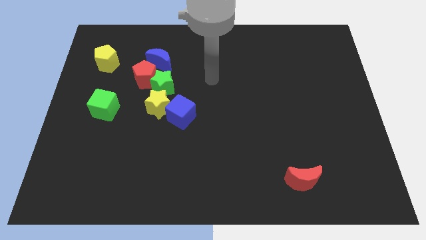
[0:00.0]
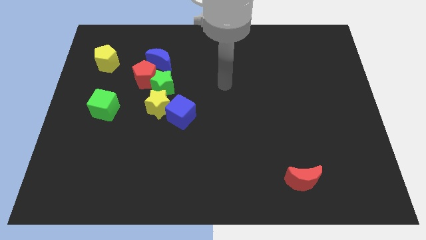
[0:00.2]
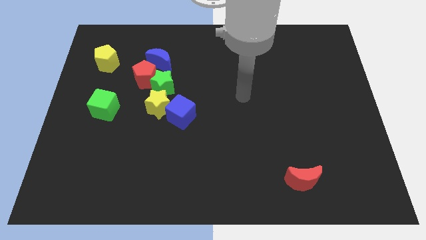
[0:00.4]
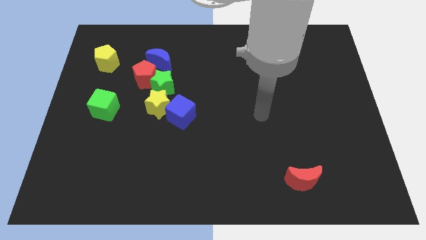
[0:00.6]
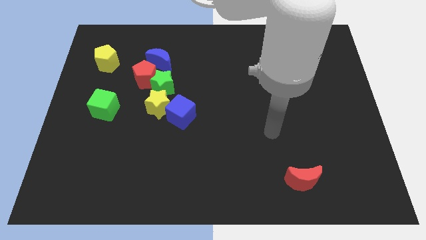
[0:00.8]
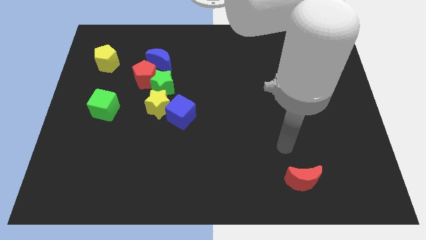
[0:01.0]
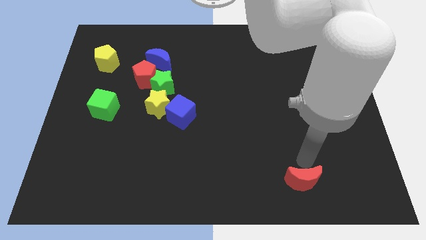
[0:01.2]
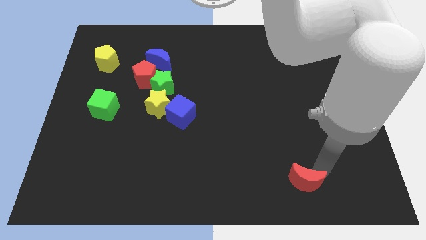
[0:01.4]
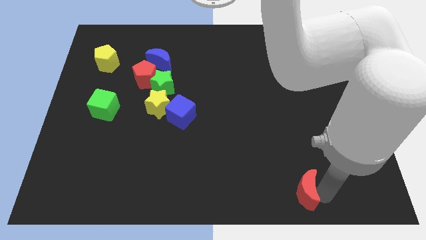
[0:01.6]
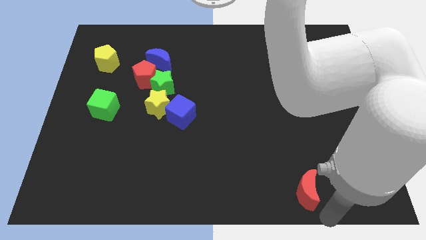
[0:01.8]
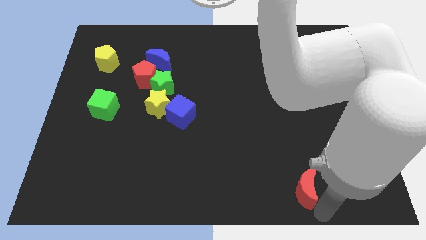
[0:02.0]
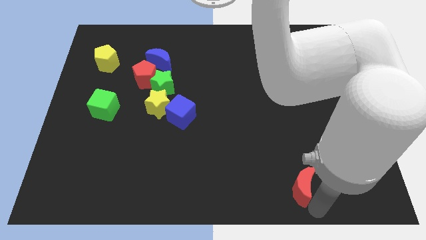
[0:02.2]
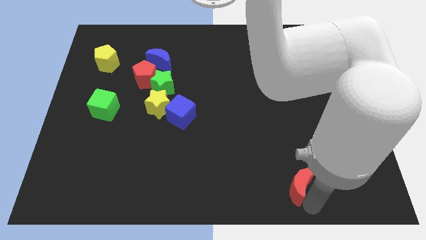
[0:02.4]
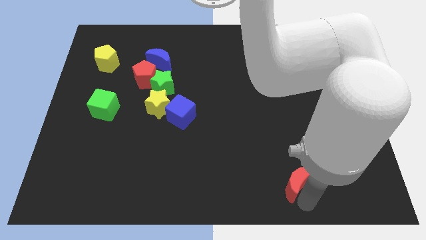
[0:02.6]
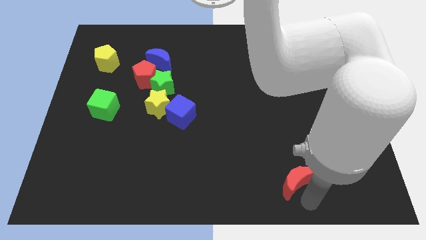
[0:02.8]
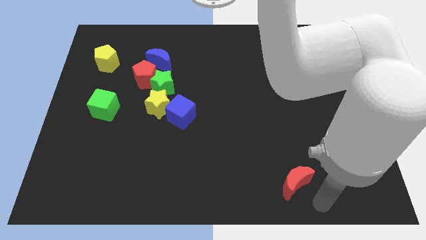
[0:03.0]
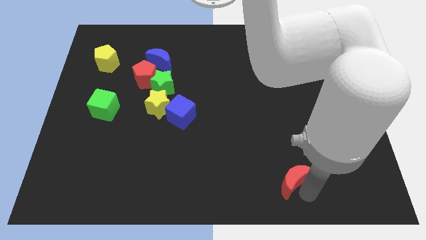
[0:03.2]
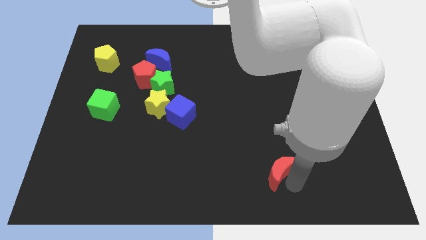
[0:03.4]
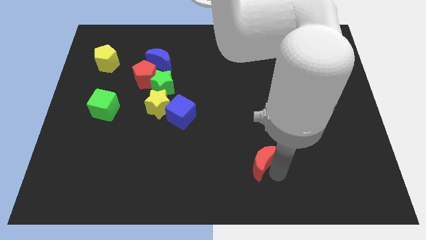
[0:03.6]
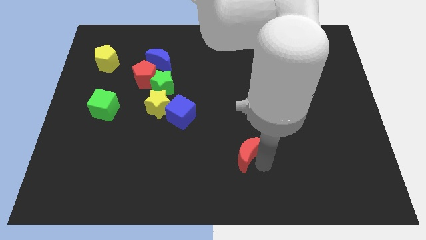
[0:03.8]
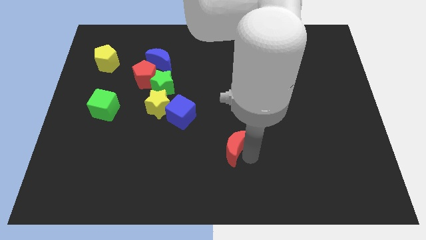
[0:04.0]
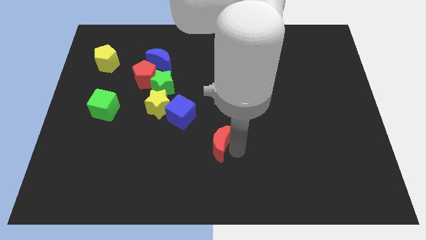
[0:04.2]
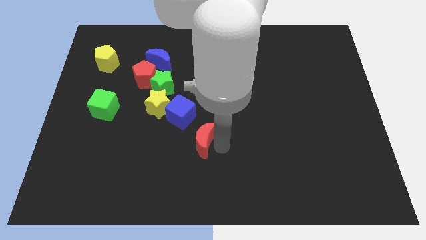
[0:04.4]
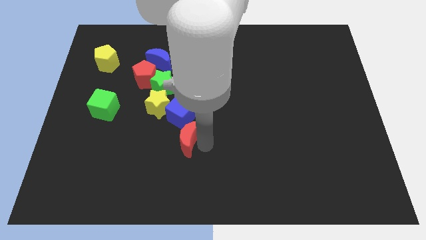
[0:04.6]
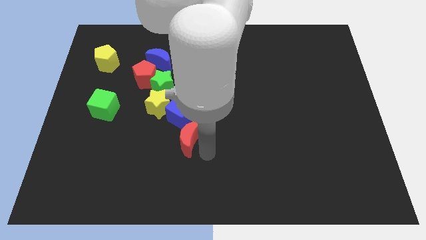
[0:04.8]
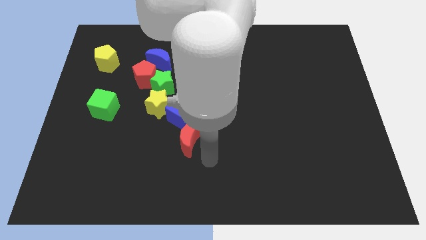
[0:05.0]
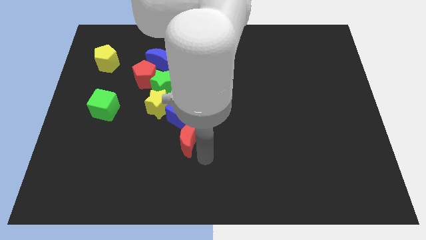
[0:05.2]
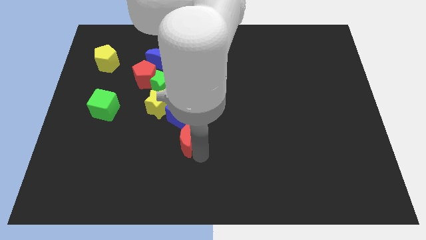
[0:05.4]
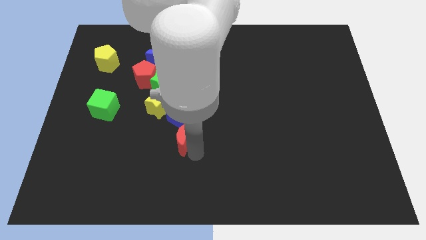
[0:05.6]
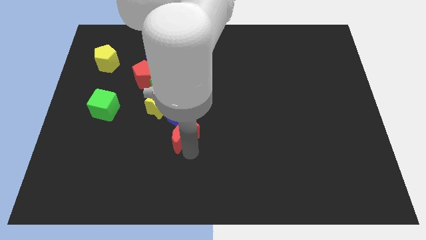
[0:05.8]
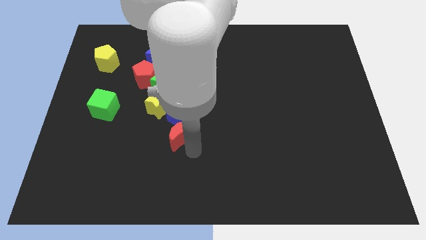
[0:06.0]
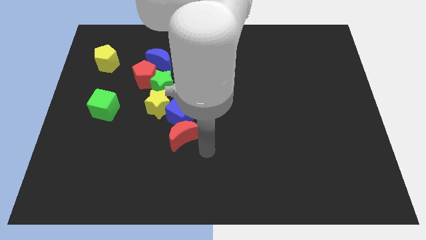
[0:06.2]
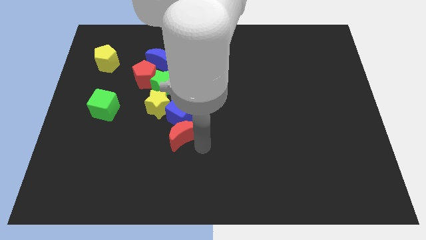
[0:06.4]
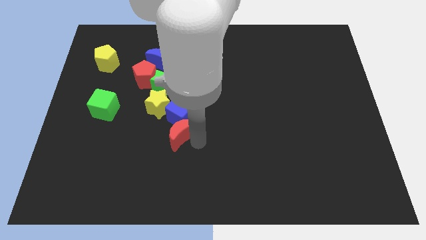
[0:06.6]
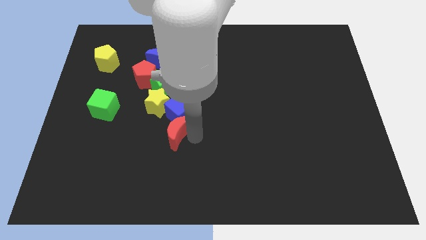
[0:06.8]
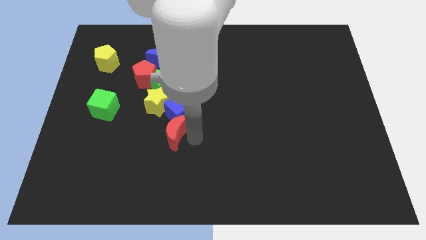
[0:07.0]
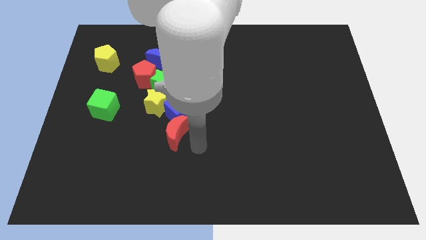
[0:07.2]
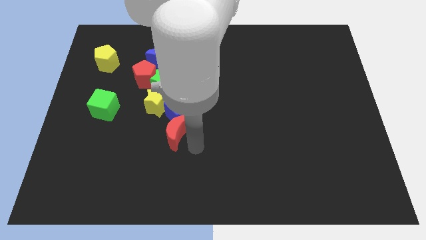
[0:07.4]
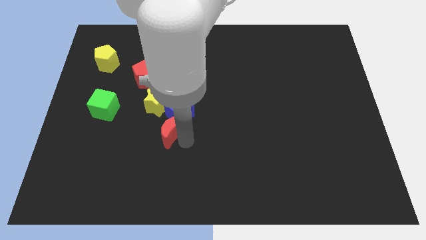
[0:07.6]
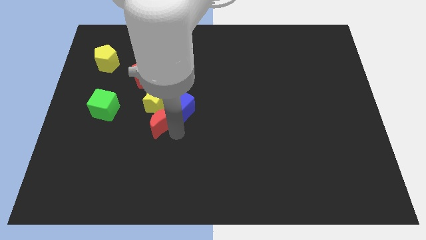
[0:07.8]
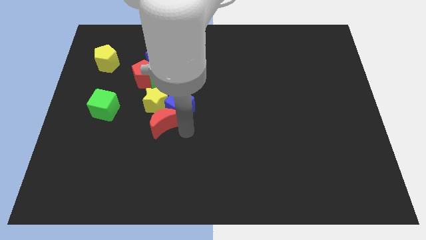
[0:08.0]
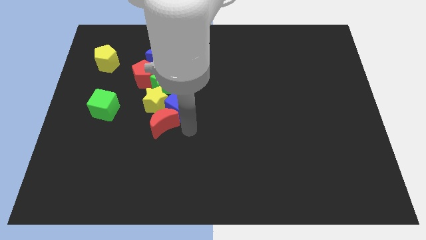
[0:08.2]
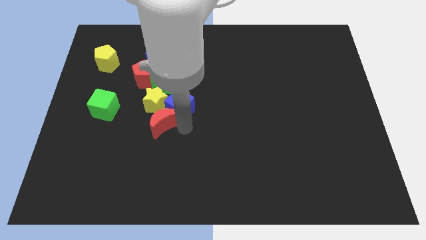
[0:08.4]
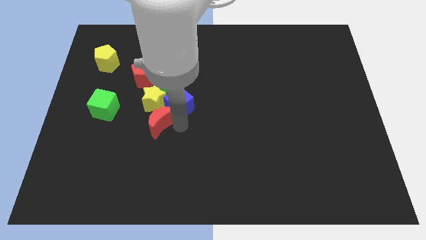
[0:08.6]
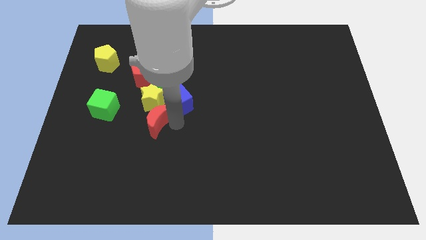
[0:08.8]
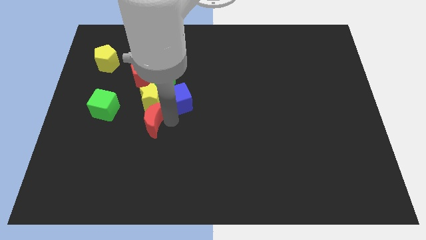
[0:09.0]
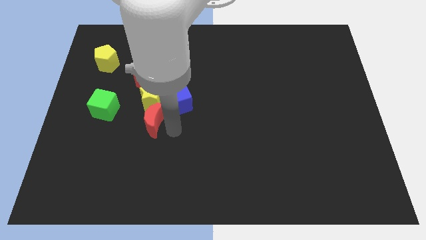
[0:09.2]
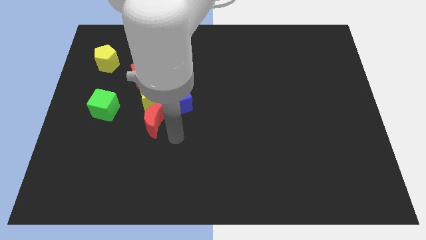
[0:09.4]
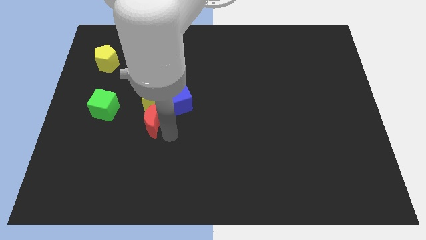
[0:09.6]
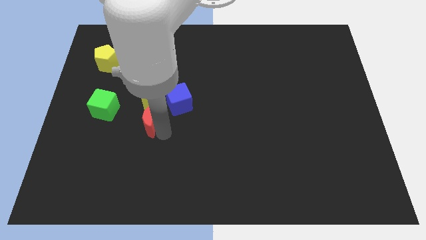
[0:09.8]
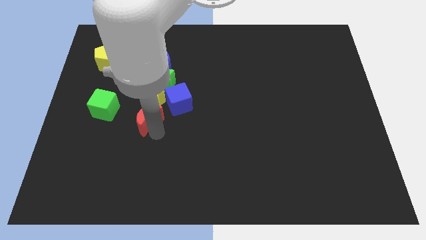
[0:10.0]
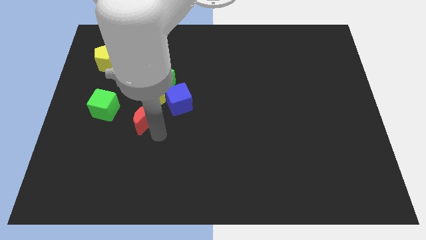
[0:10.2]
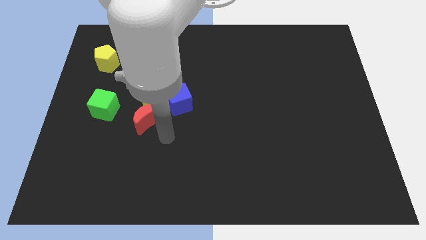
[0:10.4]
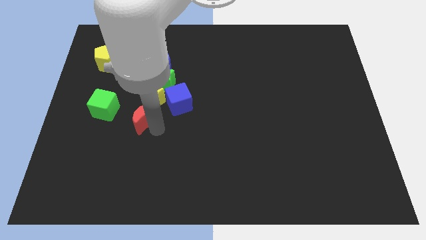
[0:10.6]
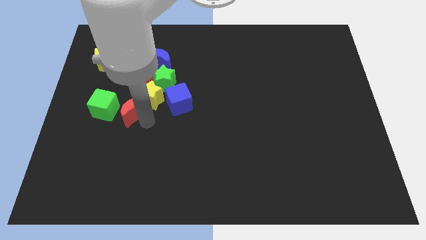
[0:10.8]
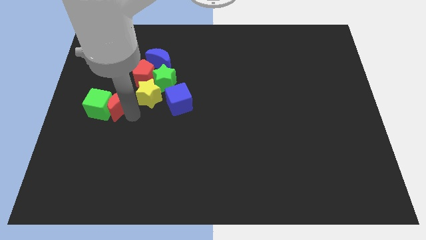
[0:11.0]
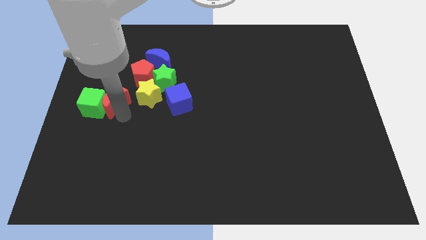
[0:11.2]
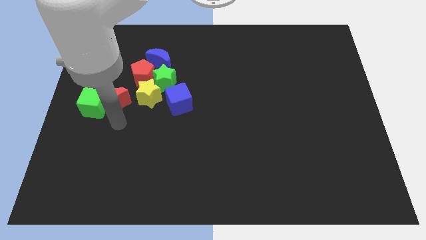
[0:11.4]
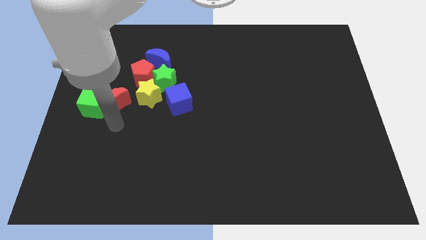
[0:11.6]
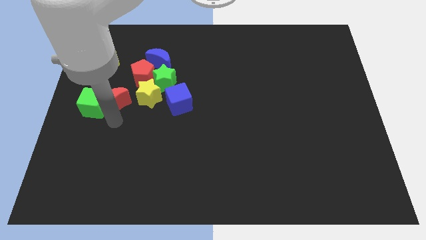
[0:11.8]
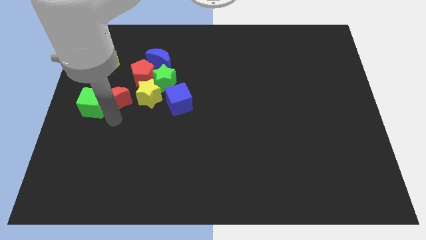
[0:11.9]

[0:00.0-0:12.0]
slide the red moon to the bottom of the yellow pentagon

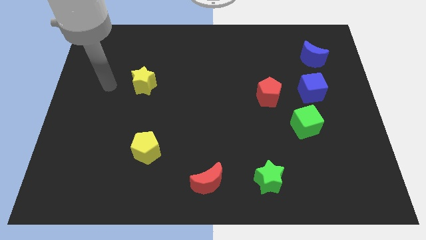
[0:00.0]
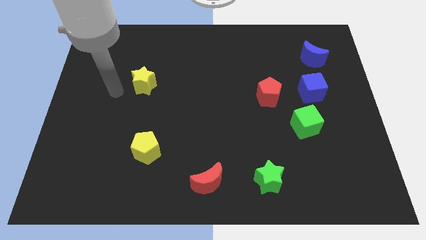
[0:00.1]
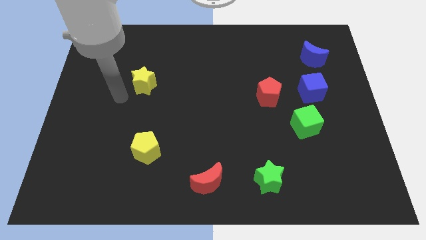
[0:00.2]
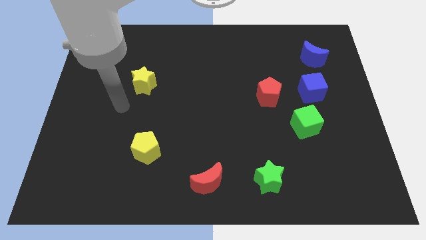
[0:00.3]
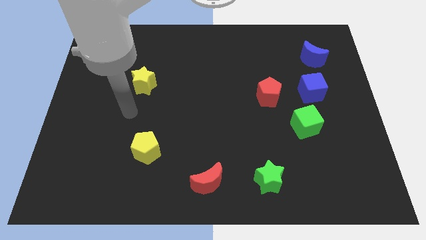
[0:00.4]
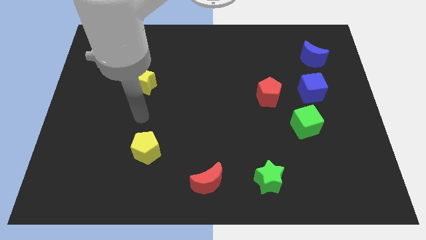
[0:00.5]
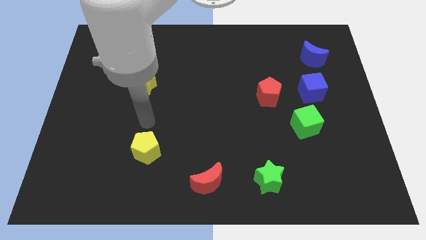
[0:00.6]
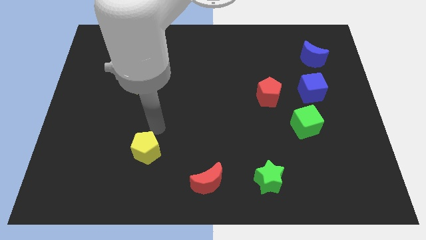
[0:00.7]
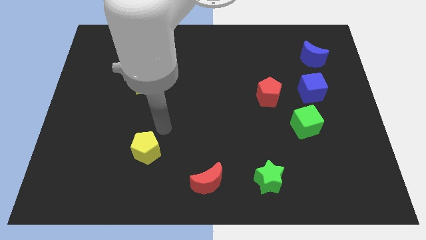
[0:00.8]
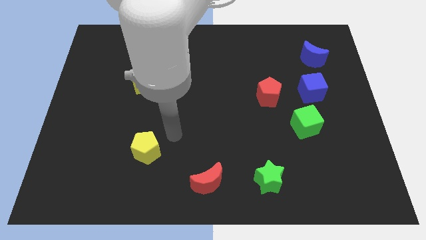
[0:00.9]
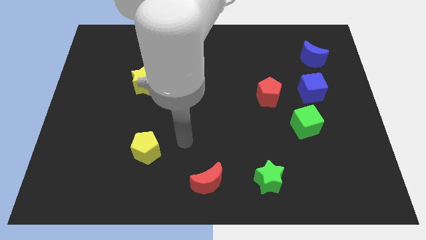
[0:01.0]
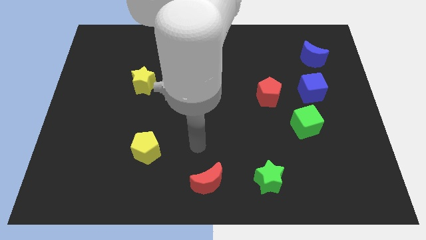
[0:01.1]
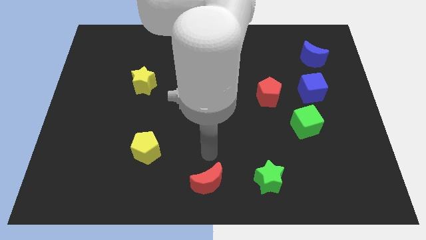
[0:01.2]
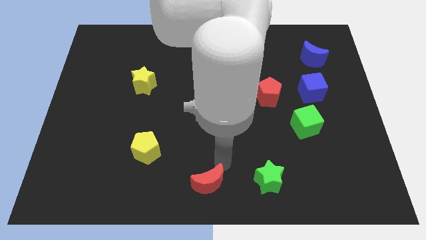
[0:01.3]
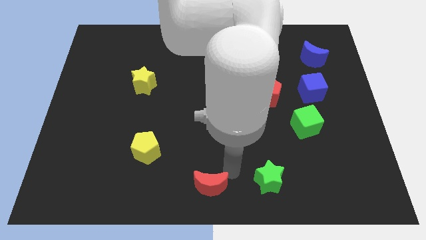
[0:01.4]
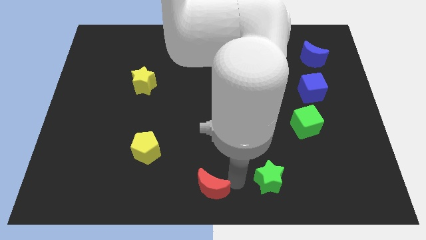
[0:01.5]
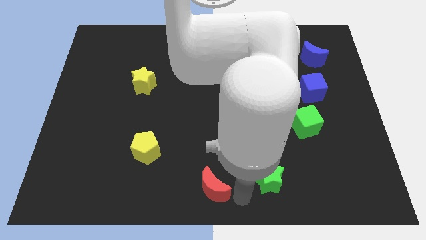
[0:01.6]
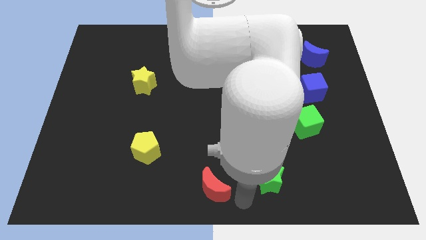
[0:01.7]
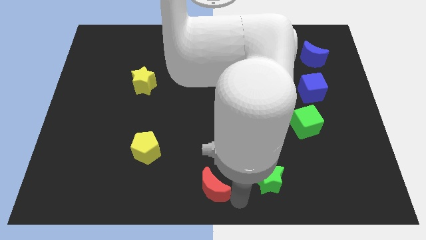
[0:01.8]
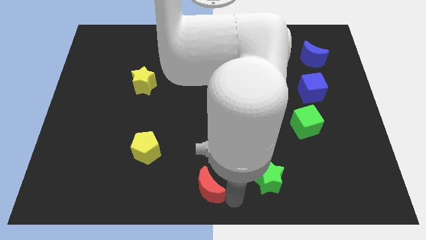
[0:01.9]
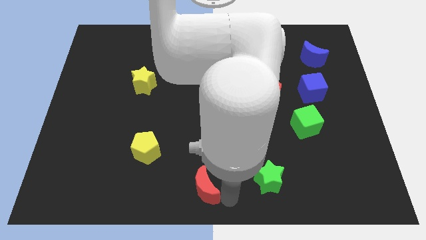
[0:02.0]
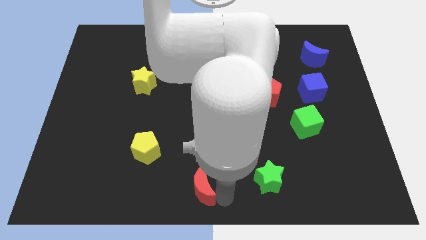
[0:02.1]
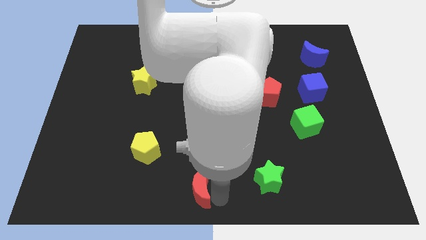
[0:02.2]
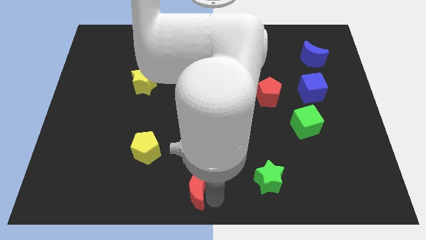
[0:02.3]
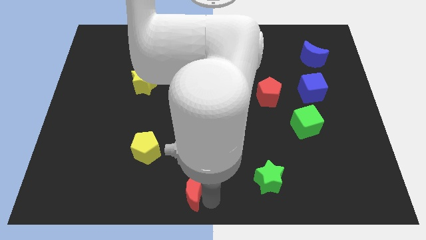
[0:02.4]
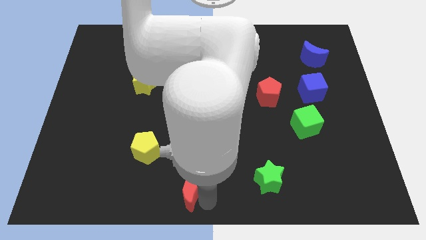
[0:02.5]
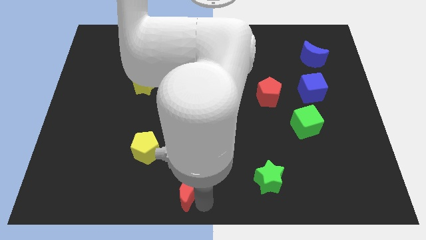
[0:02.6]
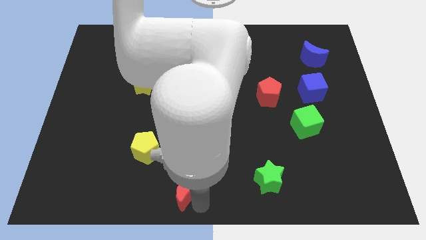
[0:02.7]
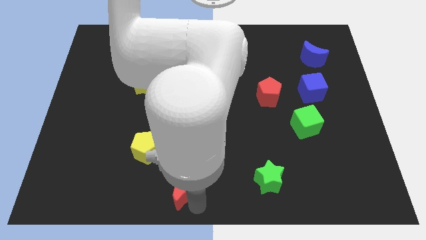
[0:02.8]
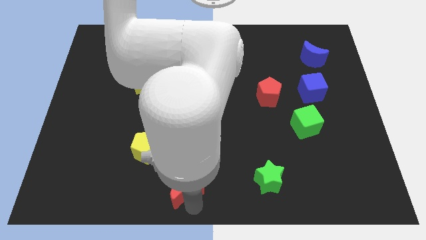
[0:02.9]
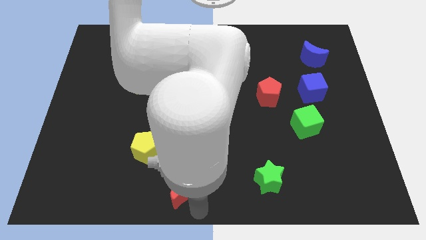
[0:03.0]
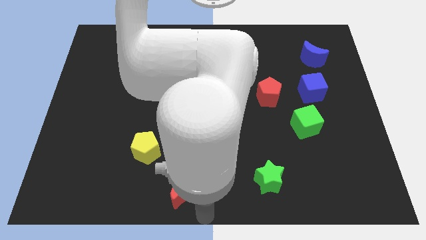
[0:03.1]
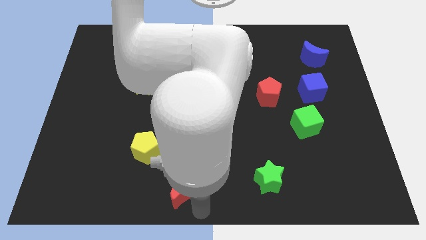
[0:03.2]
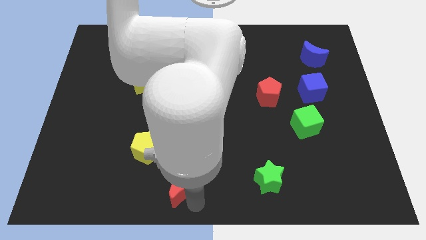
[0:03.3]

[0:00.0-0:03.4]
put the red moon to the bottom right of the yellow pentagon
